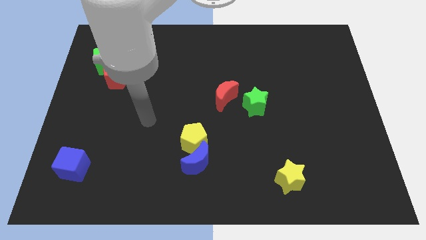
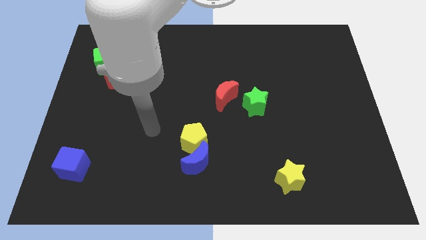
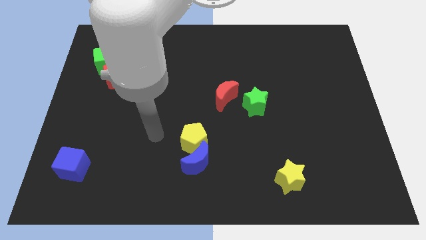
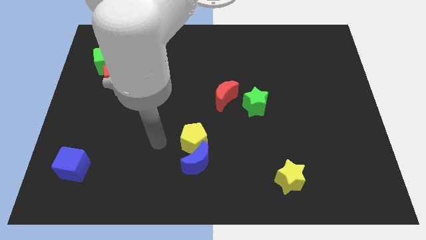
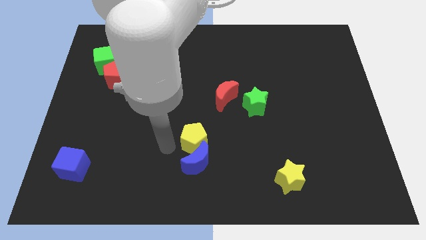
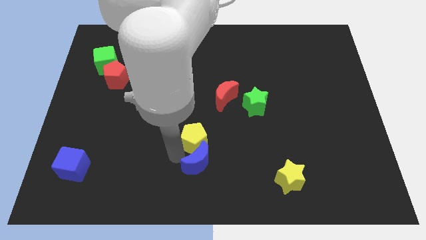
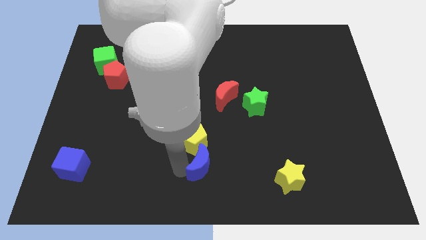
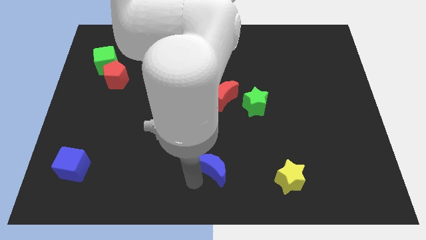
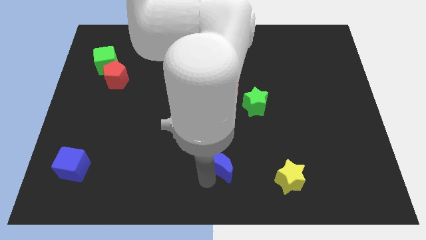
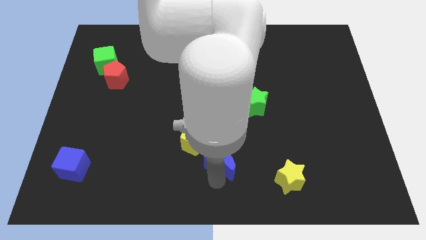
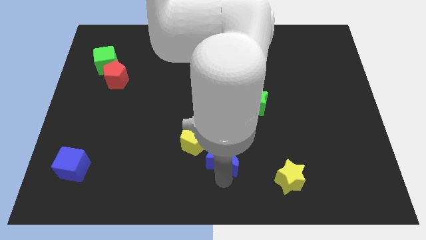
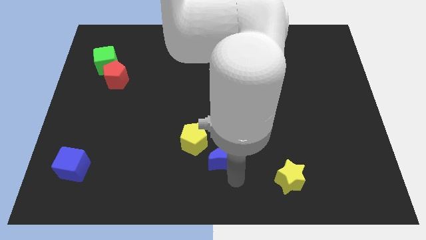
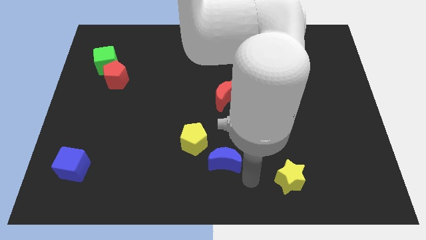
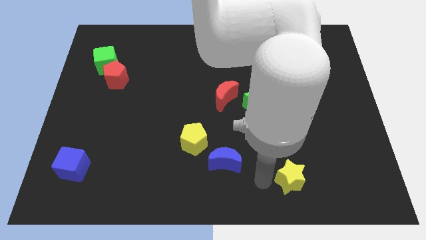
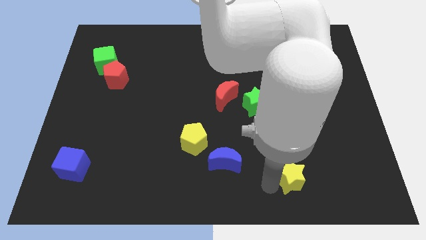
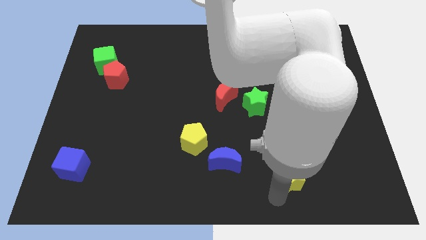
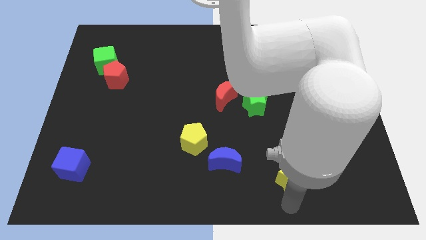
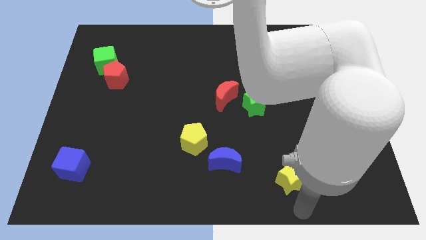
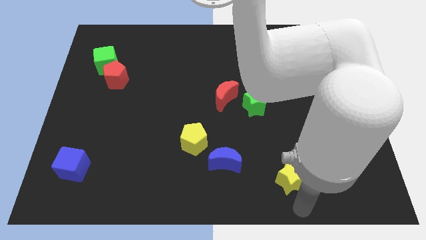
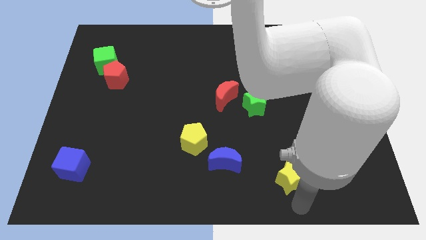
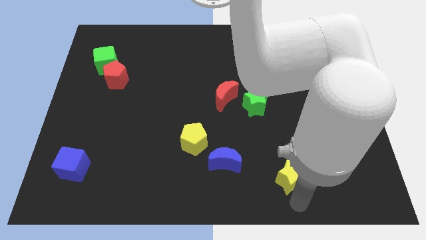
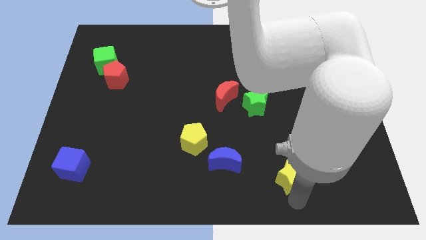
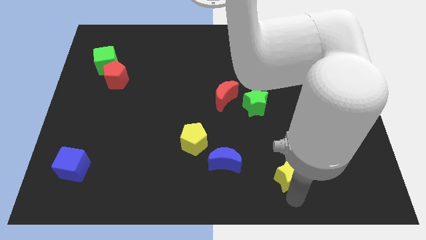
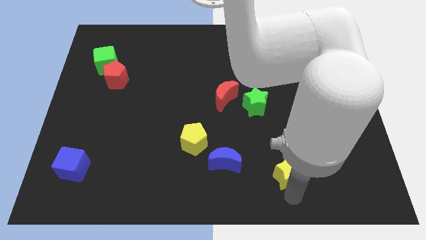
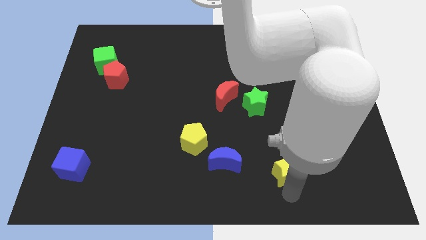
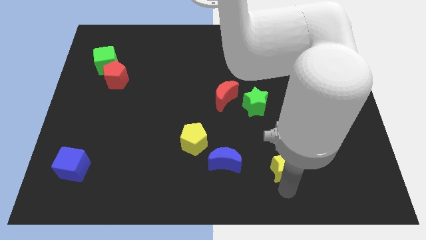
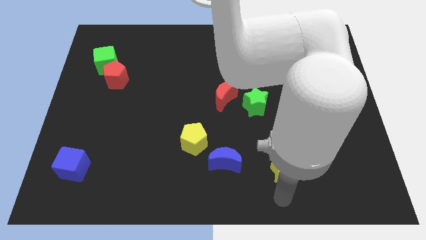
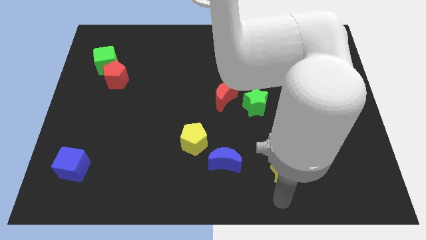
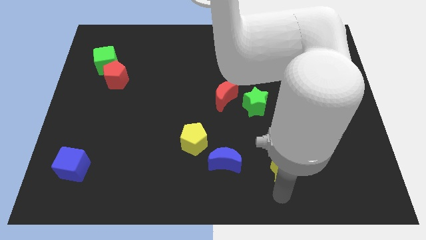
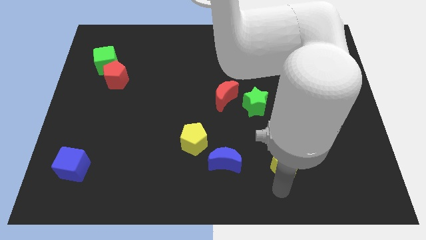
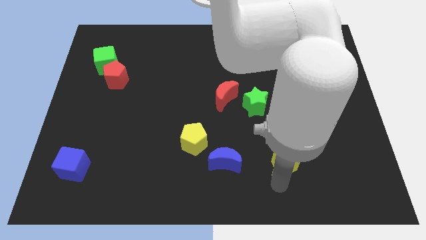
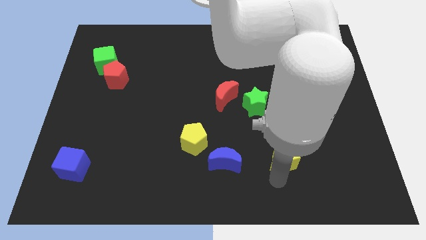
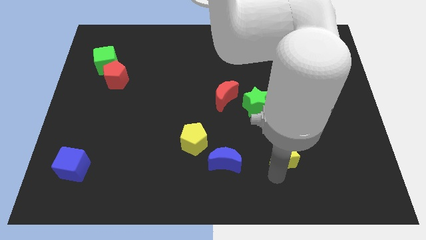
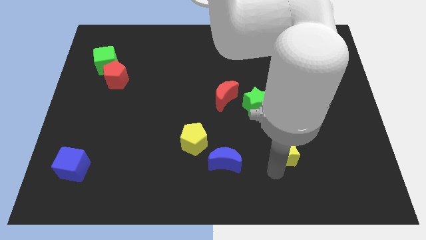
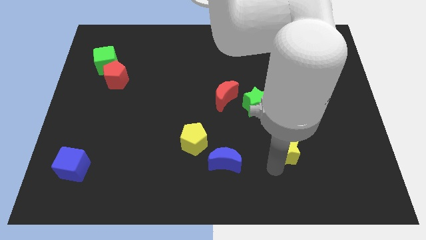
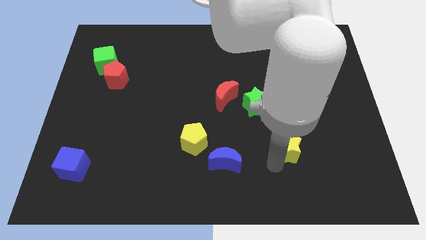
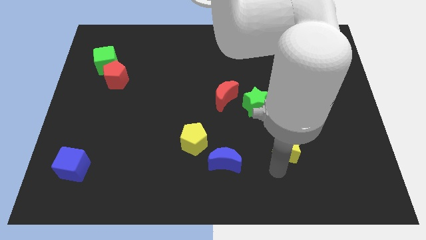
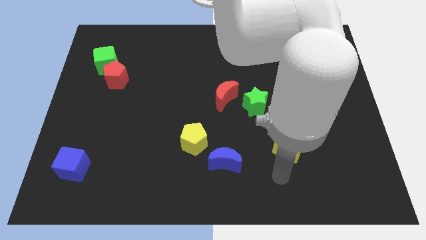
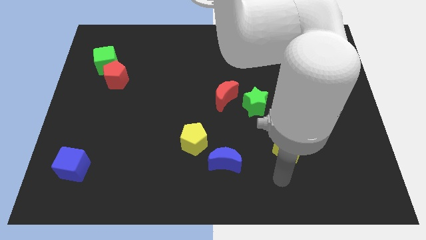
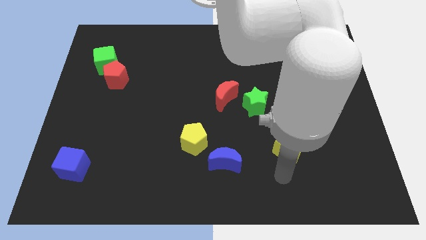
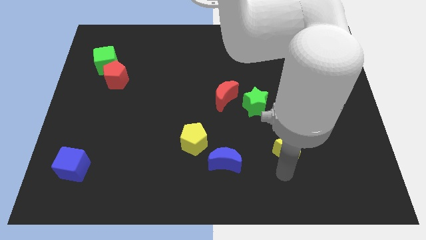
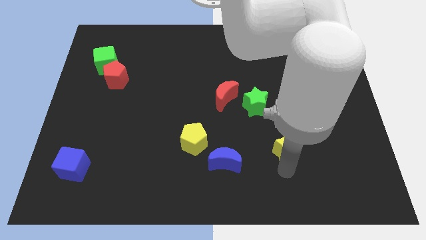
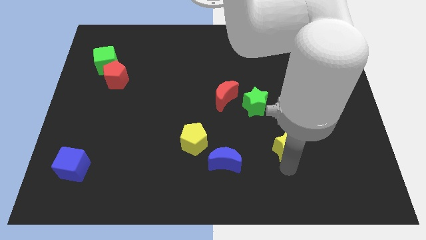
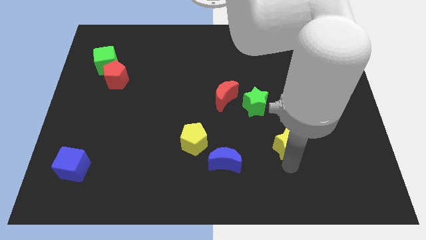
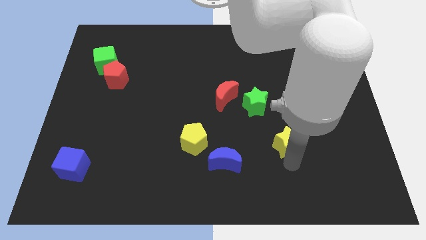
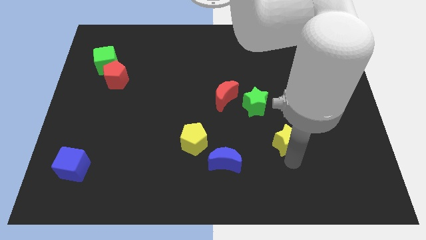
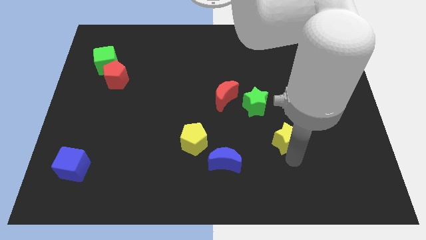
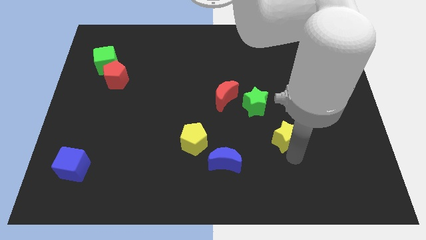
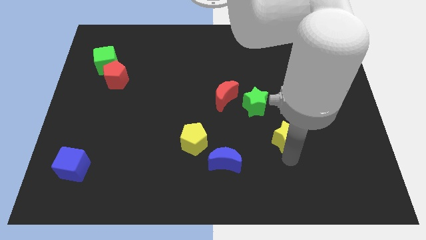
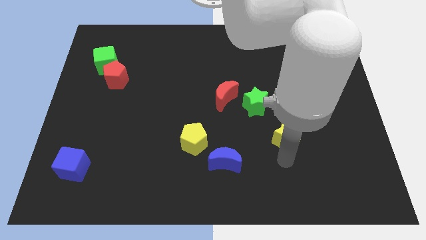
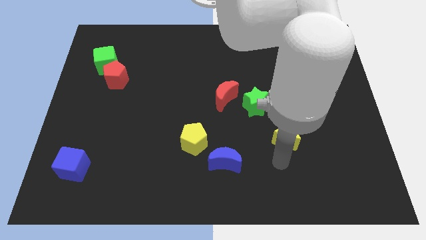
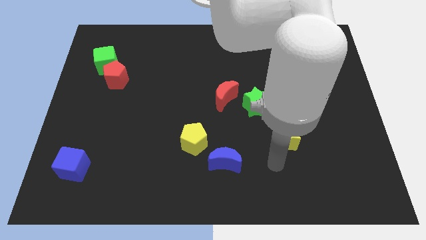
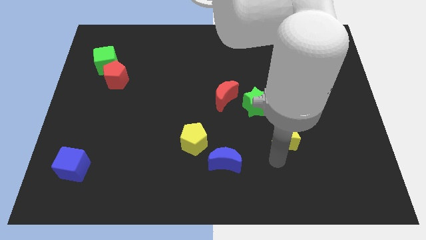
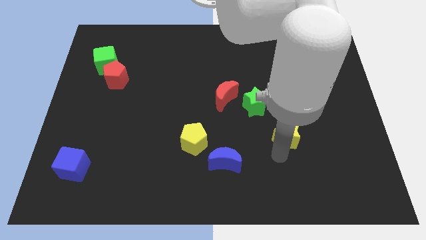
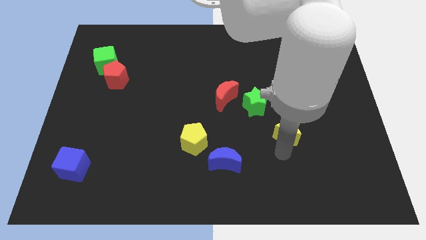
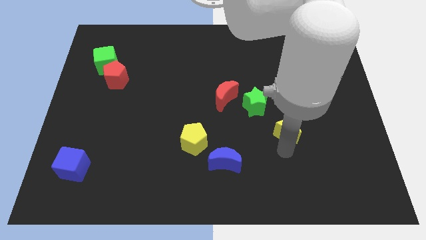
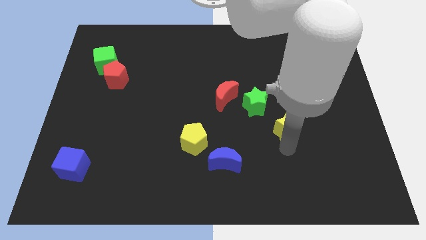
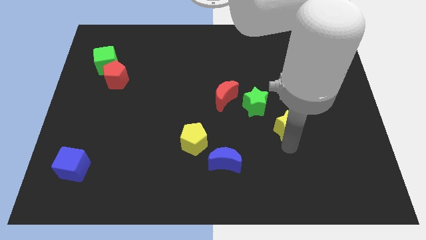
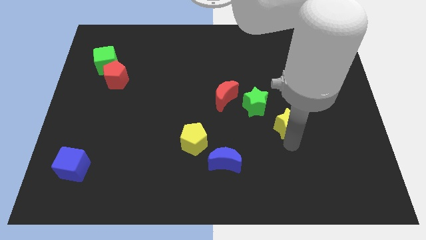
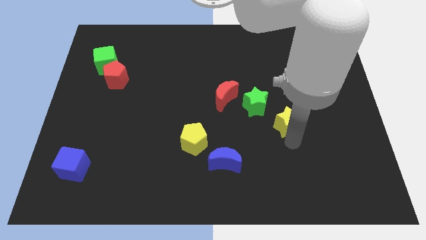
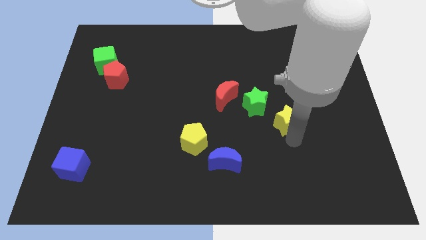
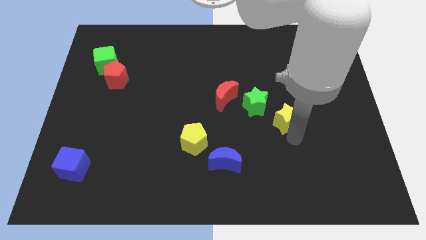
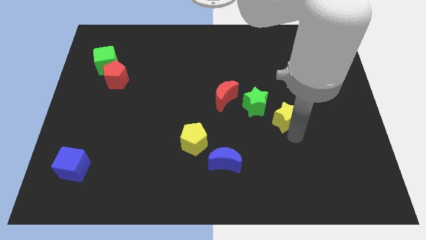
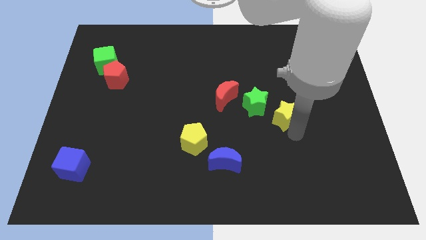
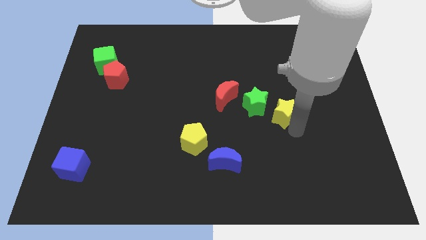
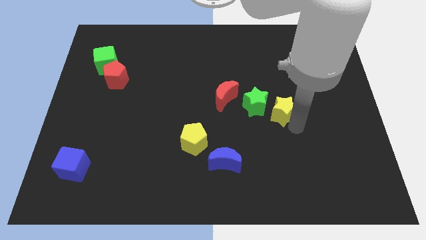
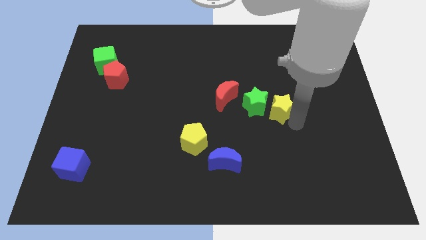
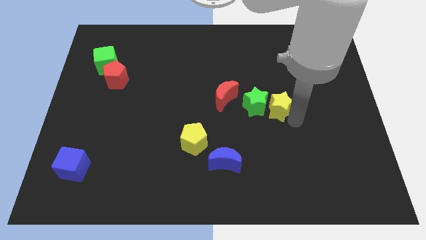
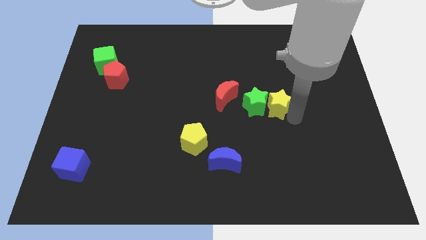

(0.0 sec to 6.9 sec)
put the yellow star to the top right side of the green star

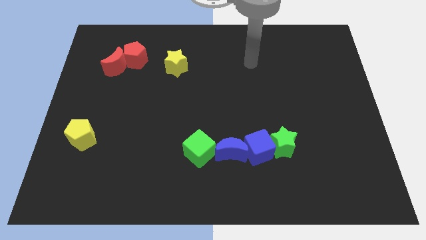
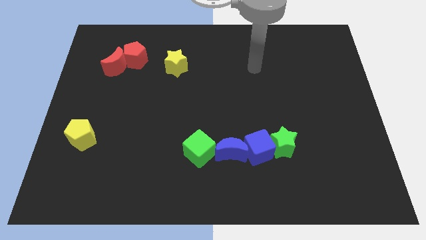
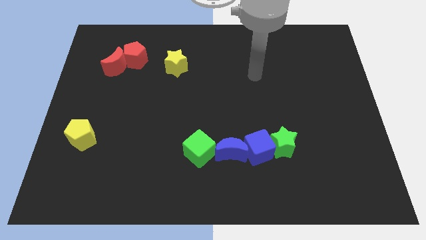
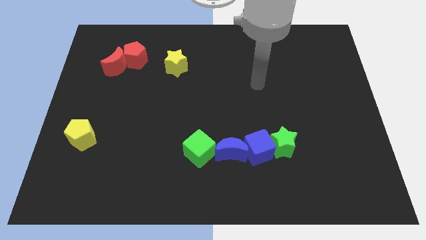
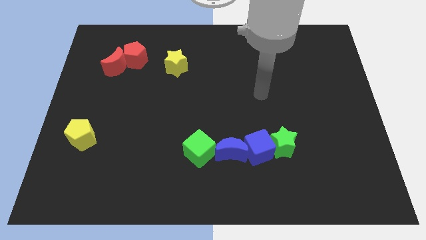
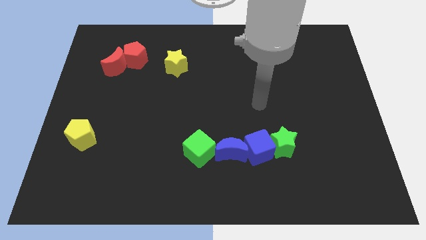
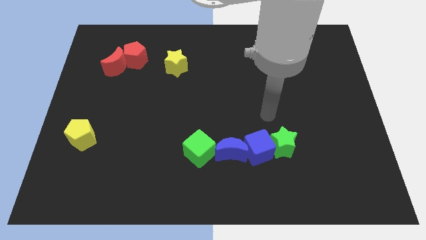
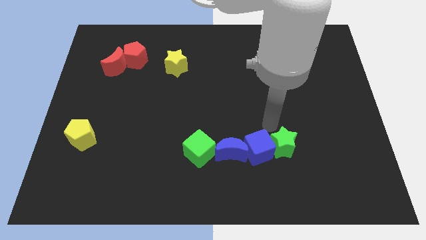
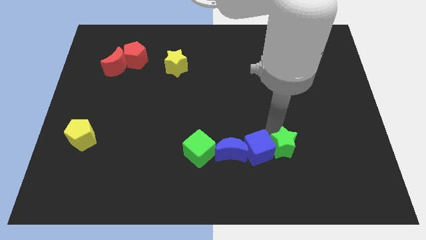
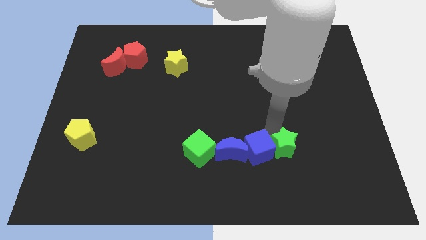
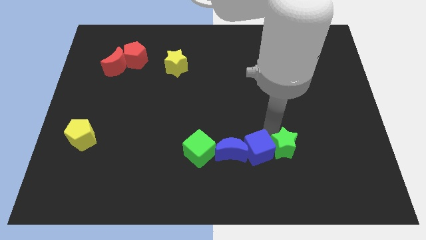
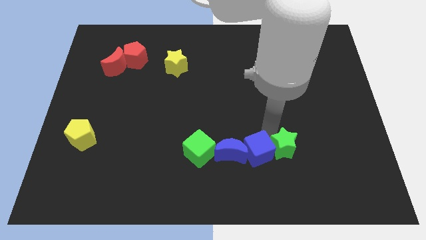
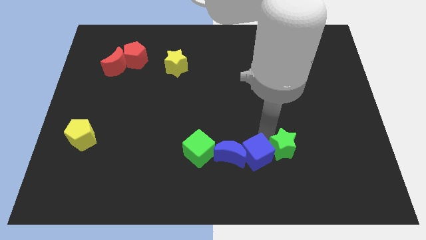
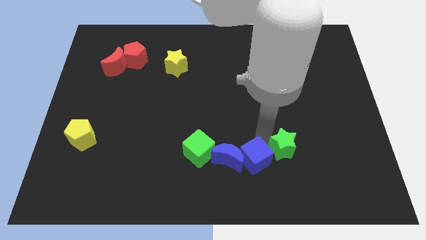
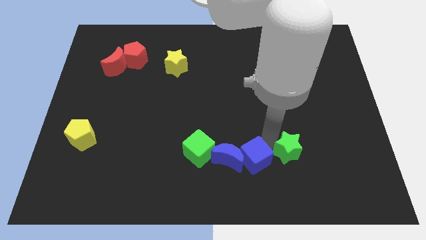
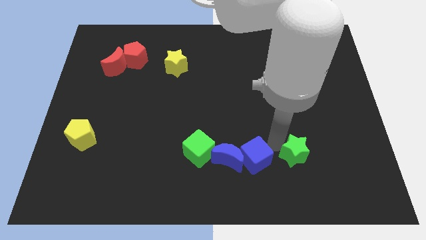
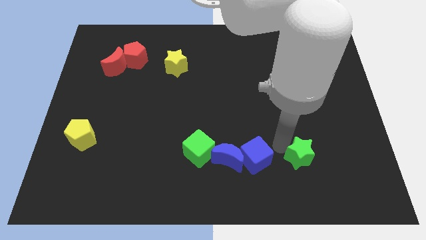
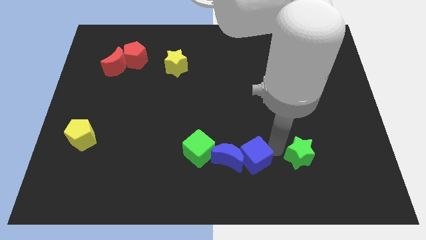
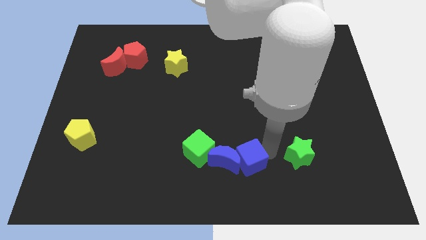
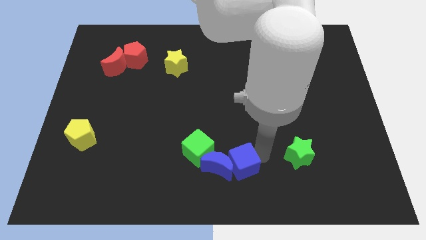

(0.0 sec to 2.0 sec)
slide the blue cube to the bottom right of the green cube
